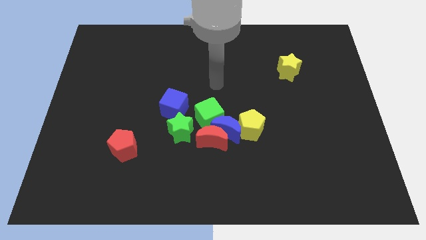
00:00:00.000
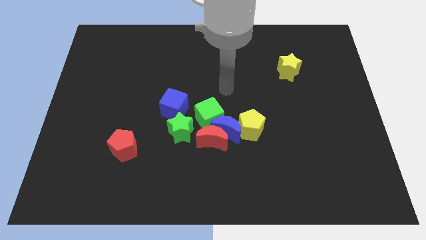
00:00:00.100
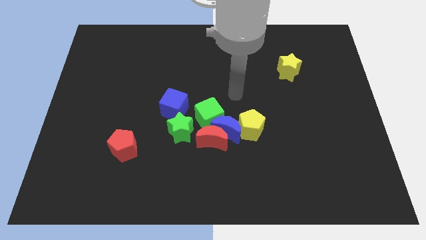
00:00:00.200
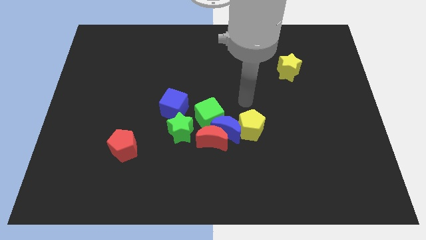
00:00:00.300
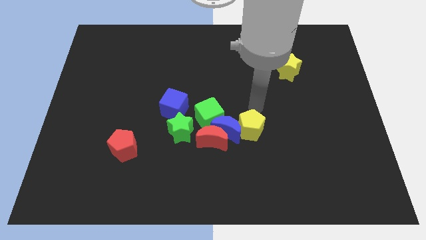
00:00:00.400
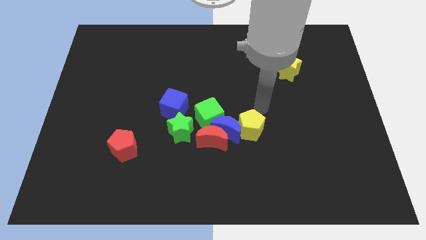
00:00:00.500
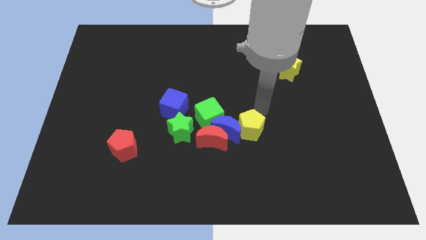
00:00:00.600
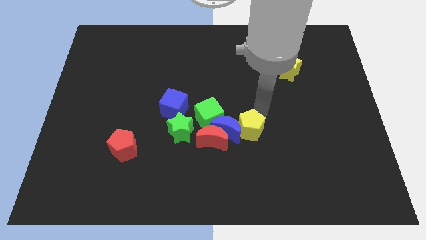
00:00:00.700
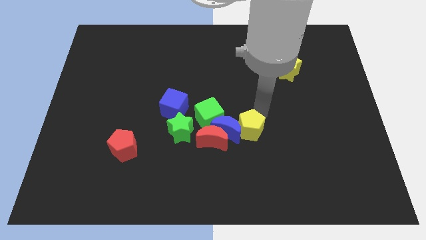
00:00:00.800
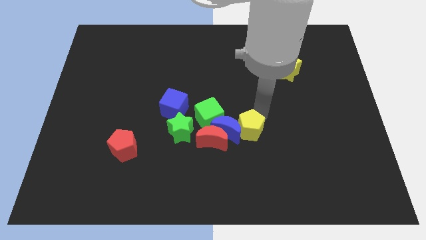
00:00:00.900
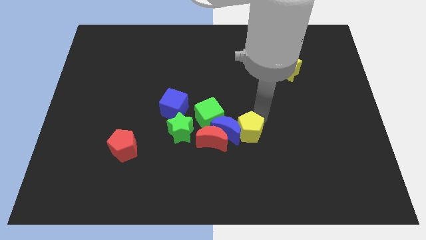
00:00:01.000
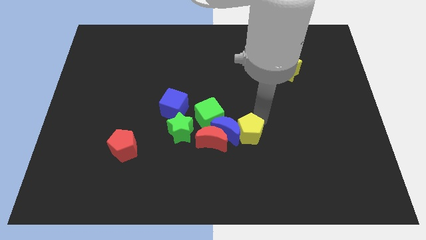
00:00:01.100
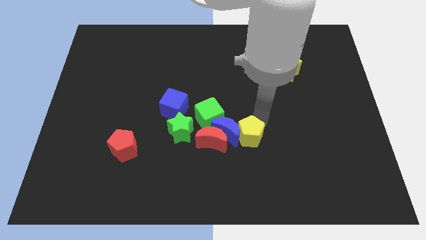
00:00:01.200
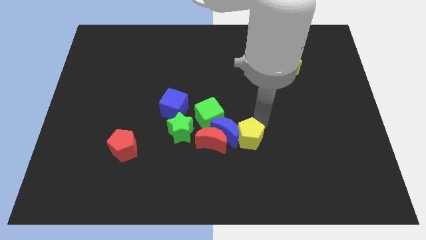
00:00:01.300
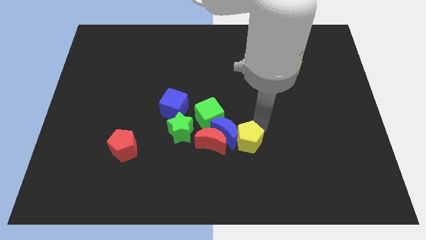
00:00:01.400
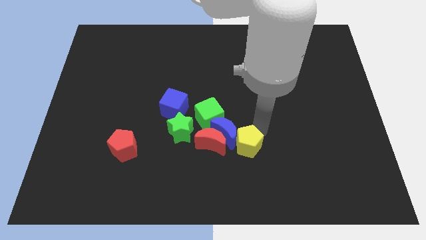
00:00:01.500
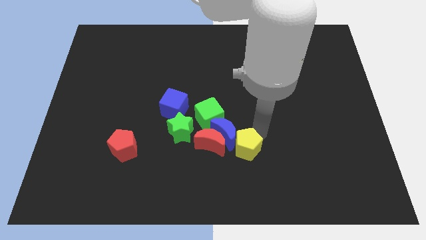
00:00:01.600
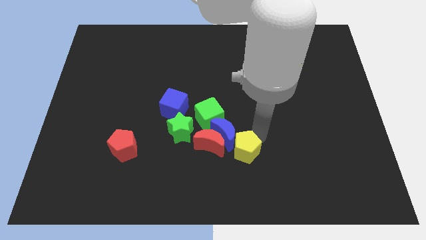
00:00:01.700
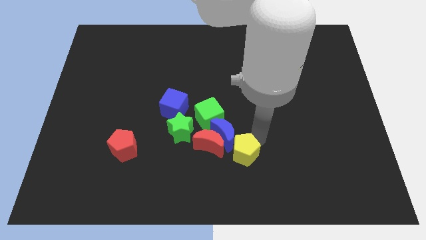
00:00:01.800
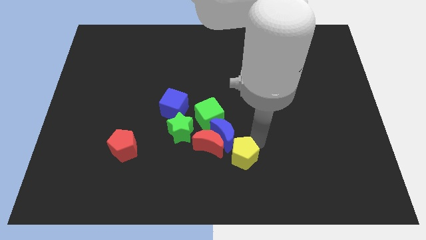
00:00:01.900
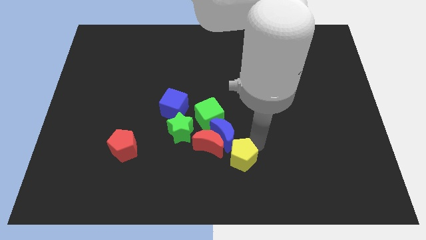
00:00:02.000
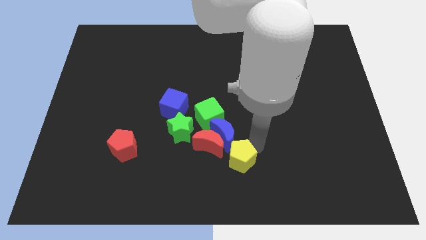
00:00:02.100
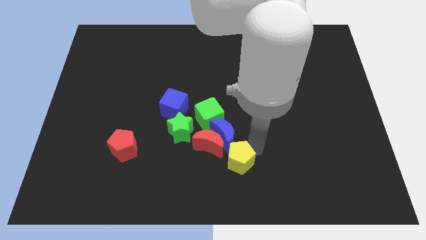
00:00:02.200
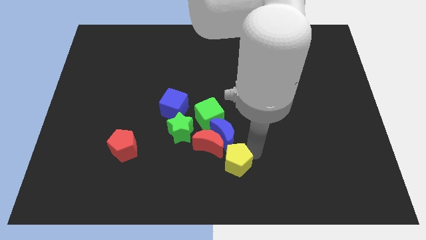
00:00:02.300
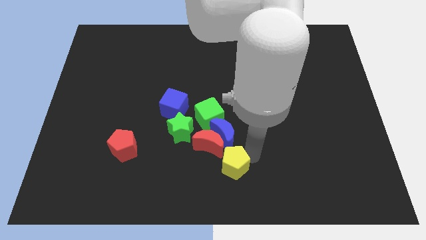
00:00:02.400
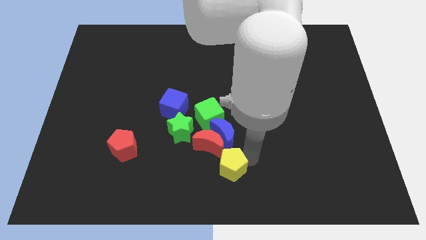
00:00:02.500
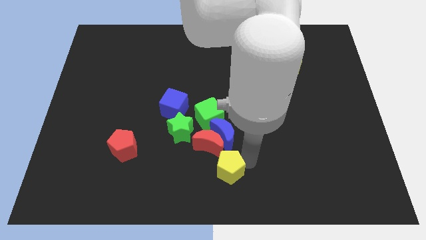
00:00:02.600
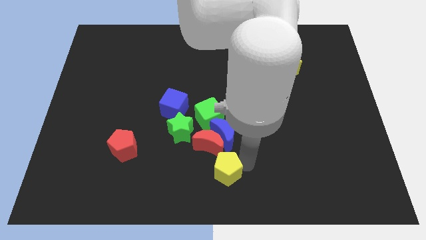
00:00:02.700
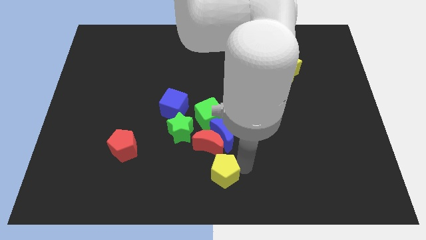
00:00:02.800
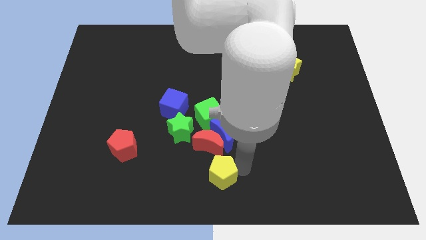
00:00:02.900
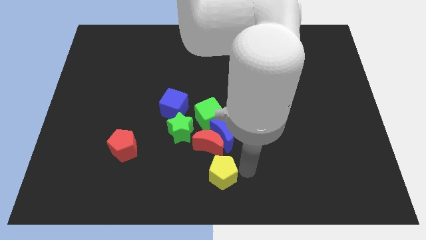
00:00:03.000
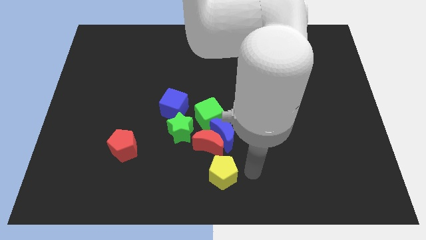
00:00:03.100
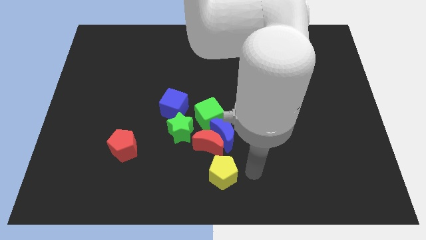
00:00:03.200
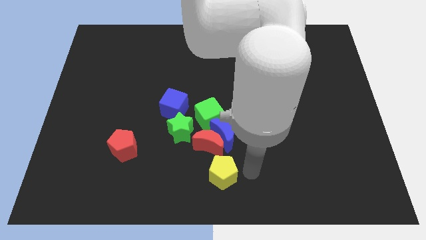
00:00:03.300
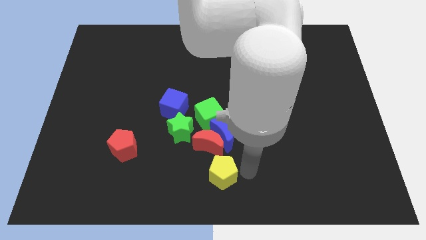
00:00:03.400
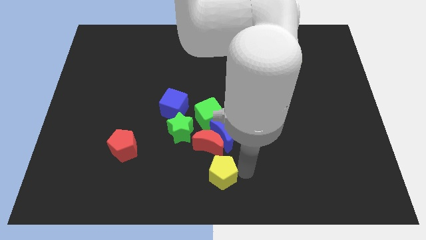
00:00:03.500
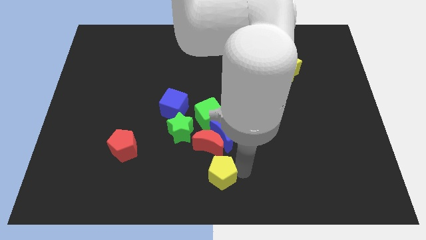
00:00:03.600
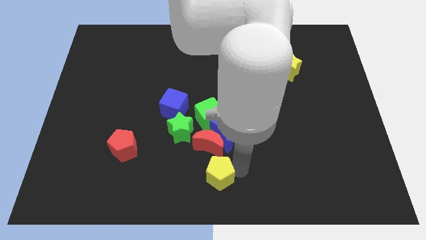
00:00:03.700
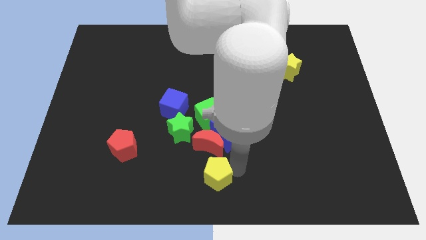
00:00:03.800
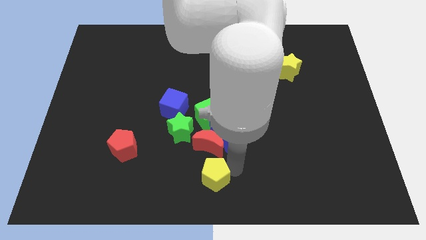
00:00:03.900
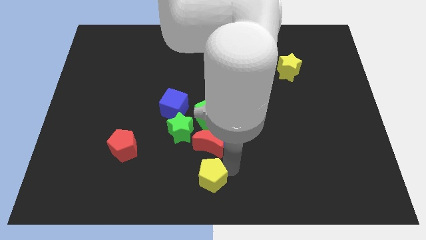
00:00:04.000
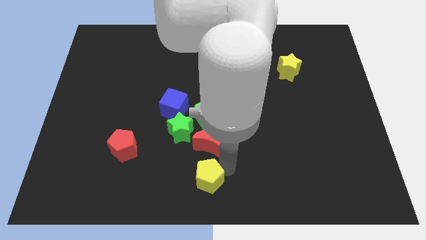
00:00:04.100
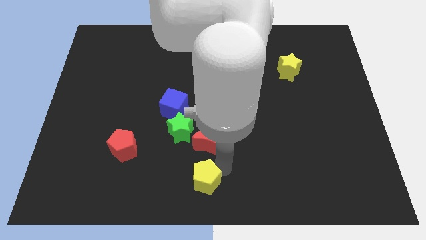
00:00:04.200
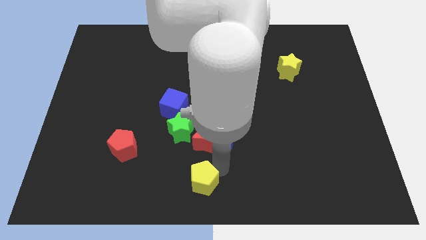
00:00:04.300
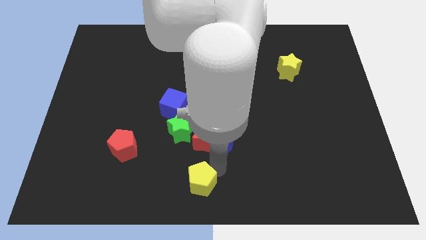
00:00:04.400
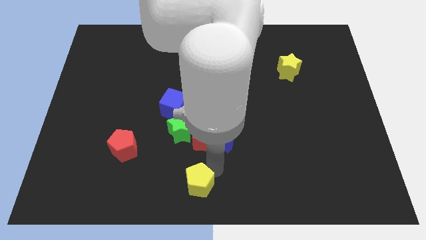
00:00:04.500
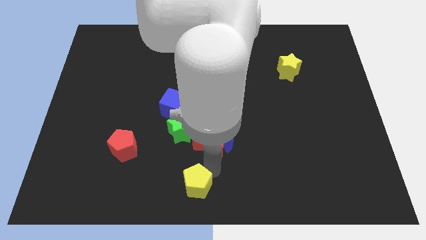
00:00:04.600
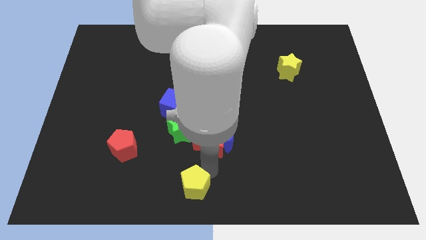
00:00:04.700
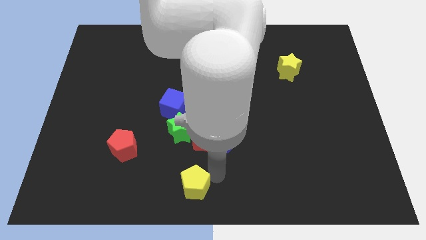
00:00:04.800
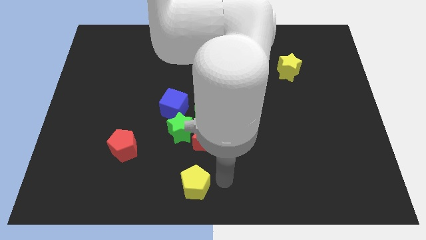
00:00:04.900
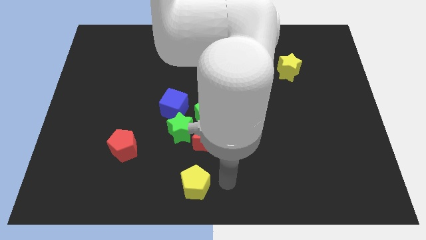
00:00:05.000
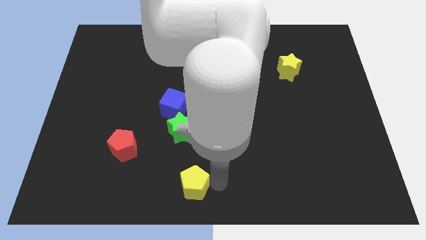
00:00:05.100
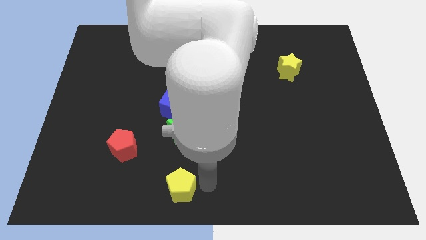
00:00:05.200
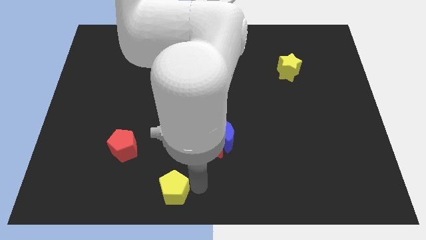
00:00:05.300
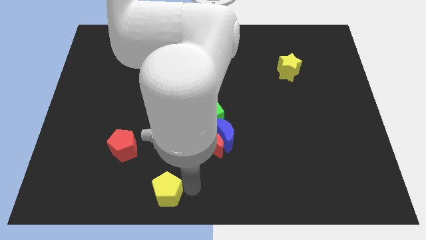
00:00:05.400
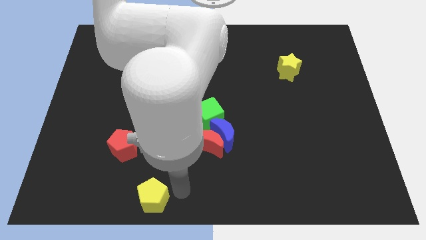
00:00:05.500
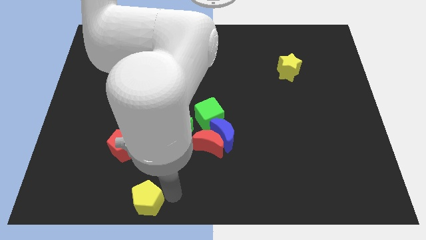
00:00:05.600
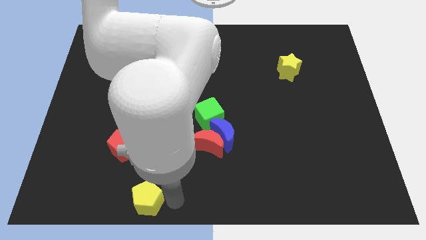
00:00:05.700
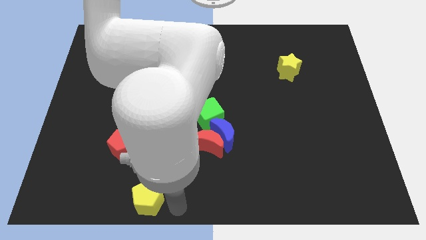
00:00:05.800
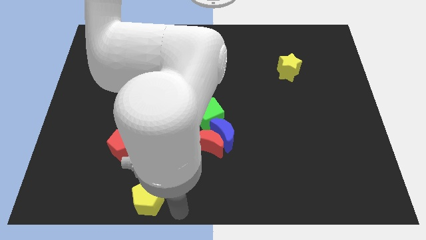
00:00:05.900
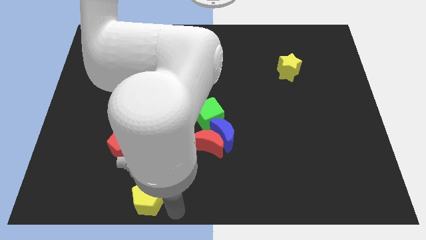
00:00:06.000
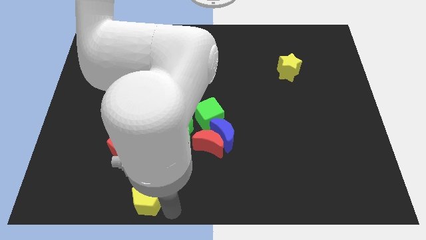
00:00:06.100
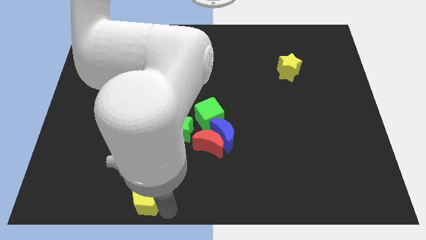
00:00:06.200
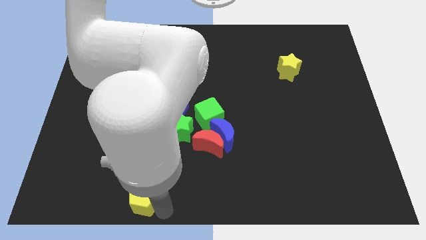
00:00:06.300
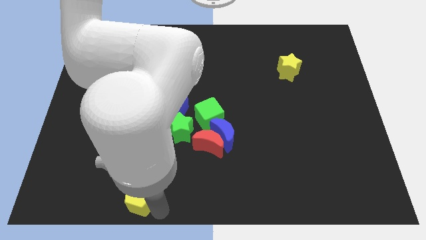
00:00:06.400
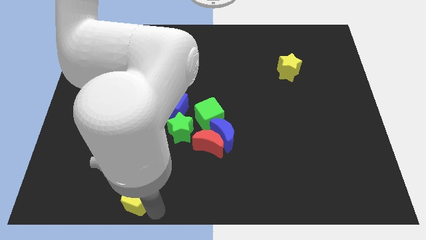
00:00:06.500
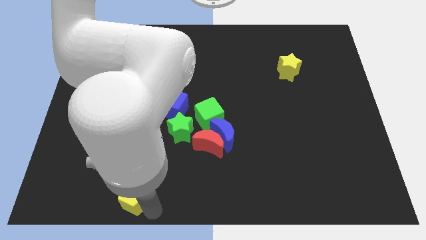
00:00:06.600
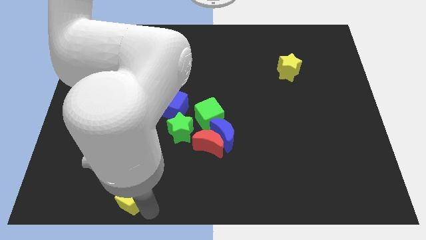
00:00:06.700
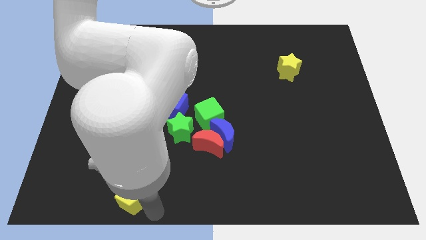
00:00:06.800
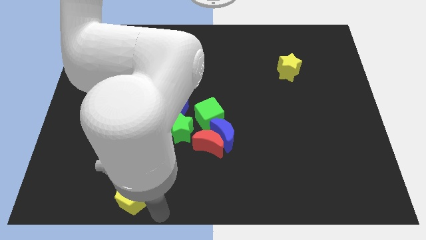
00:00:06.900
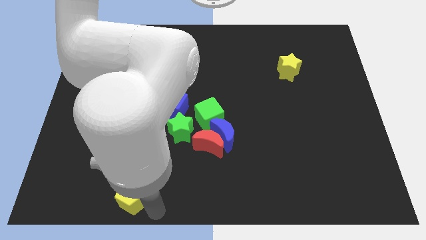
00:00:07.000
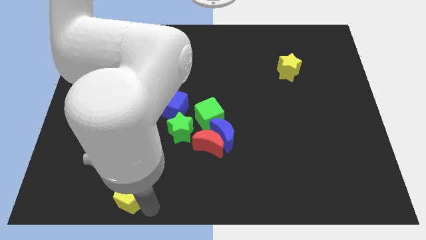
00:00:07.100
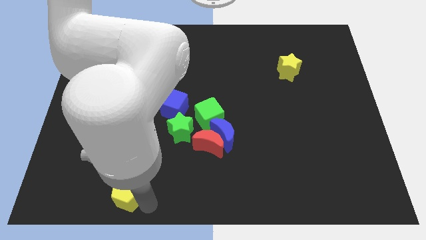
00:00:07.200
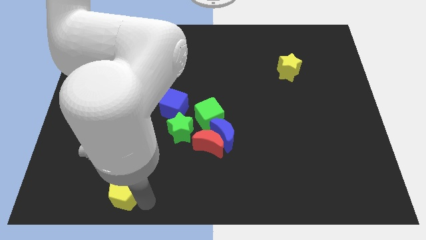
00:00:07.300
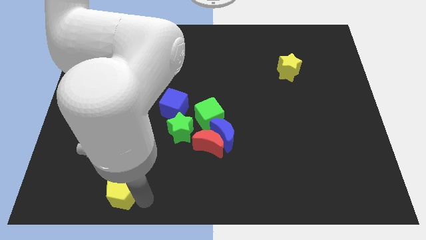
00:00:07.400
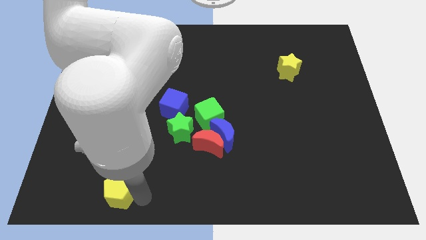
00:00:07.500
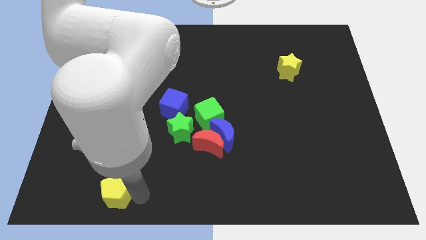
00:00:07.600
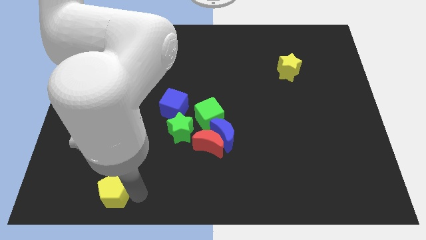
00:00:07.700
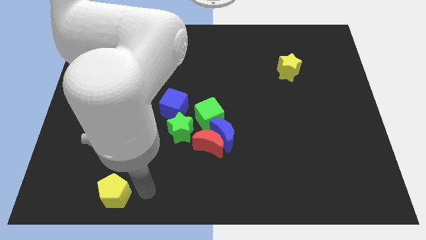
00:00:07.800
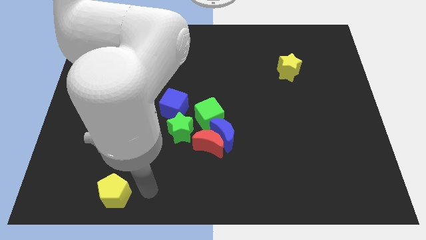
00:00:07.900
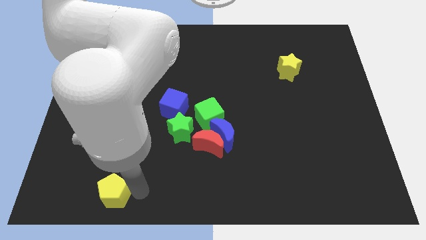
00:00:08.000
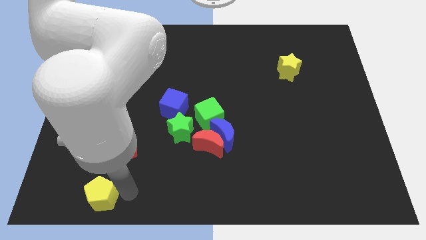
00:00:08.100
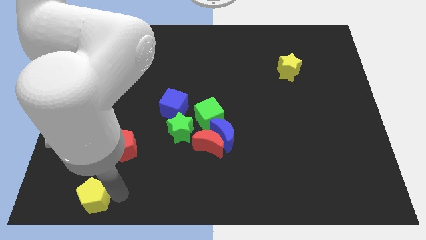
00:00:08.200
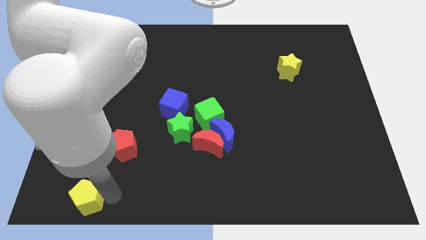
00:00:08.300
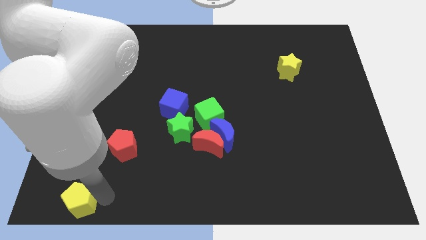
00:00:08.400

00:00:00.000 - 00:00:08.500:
put the yellow pentagon to the bottom left corner
